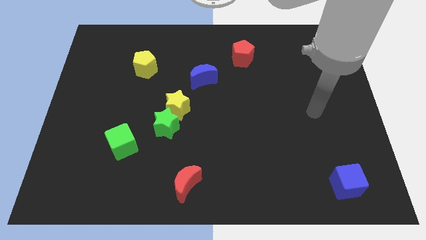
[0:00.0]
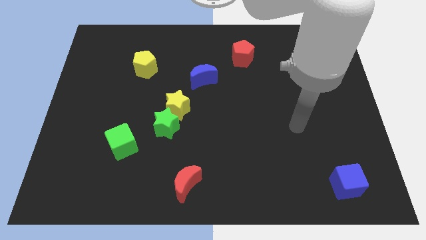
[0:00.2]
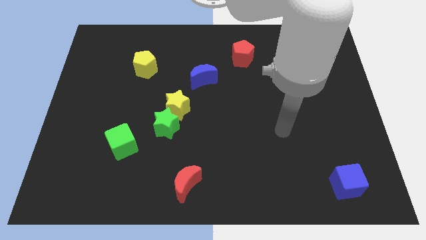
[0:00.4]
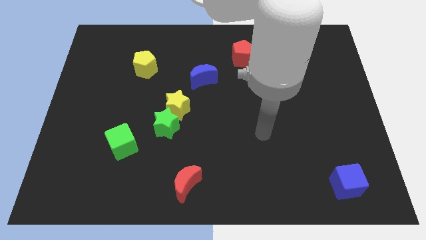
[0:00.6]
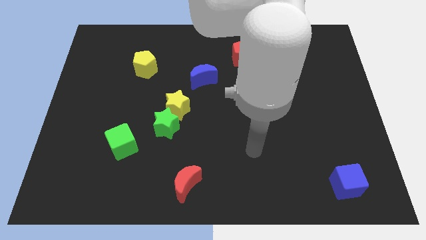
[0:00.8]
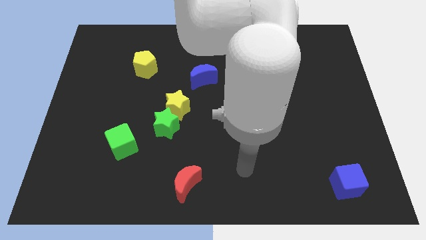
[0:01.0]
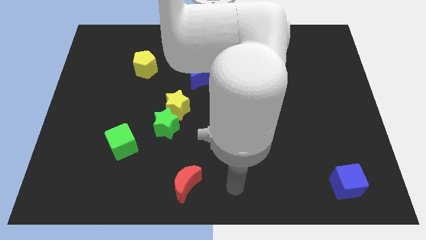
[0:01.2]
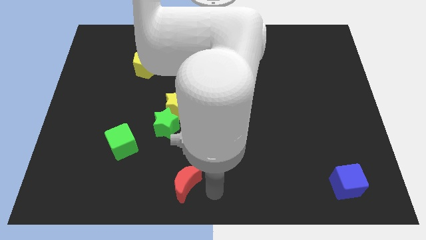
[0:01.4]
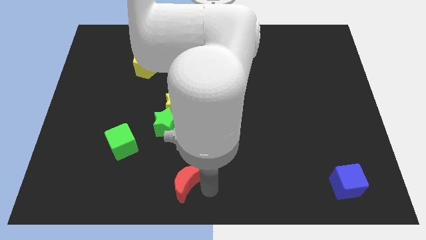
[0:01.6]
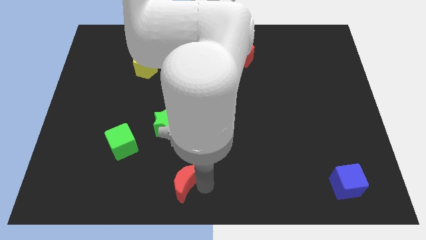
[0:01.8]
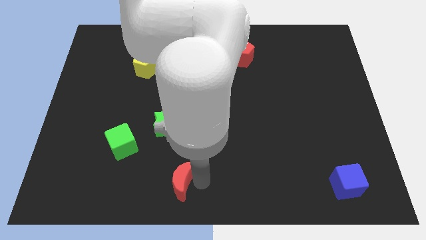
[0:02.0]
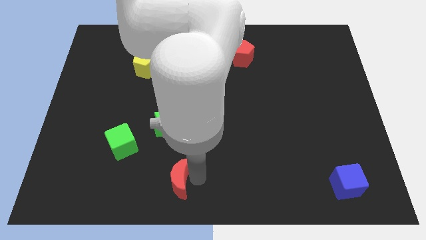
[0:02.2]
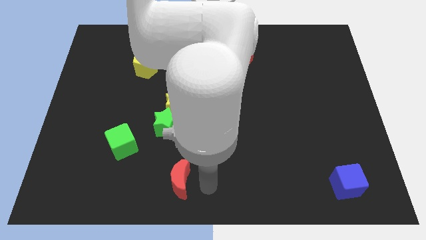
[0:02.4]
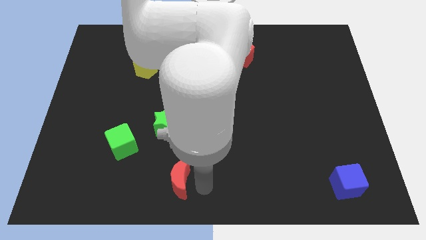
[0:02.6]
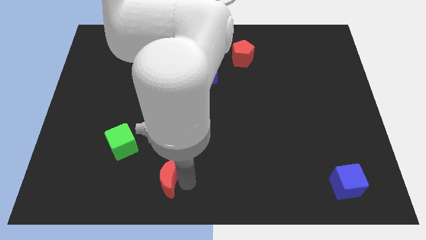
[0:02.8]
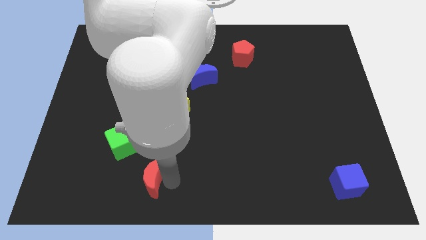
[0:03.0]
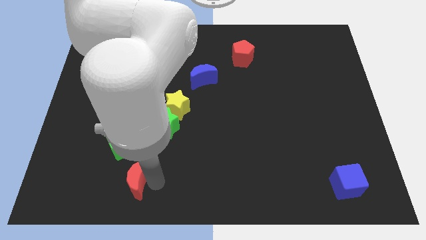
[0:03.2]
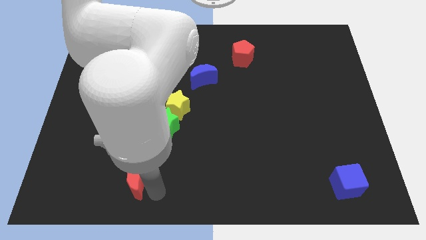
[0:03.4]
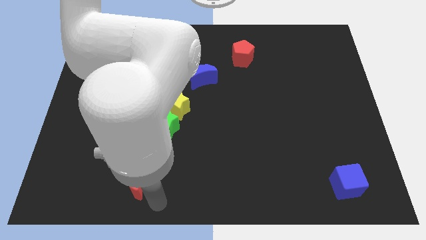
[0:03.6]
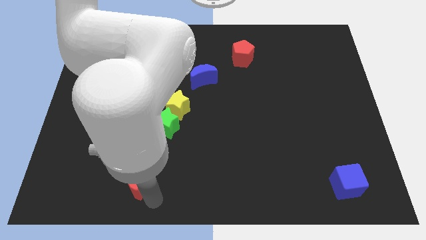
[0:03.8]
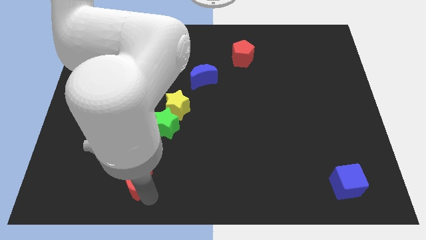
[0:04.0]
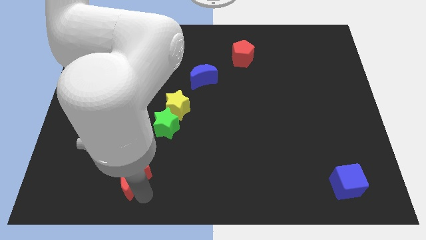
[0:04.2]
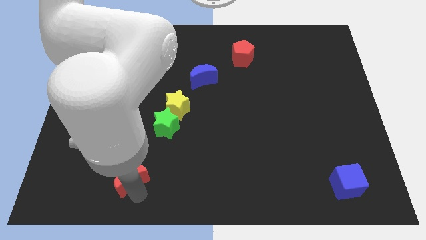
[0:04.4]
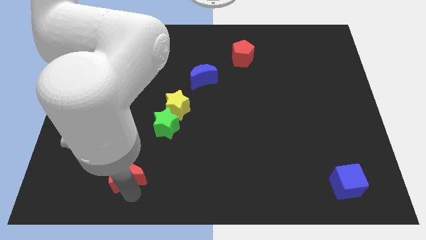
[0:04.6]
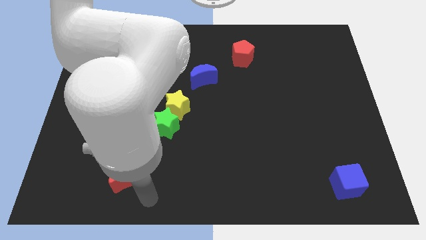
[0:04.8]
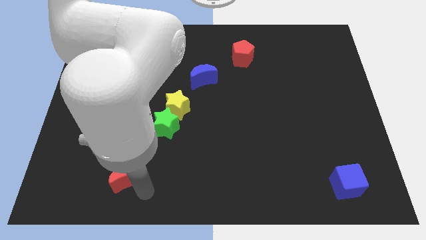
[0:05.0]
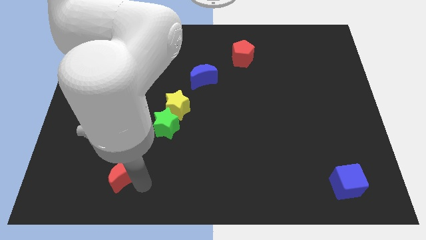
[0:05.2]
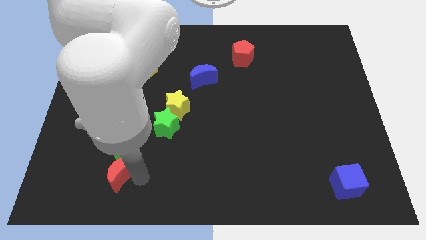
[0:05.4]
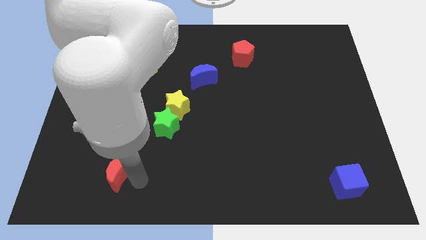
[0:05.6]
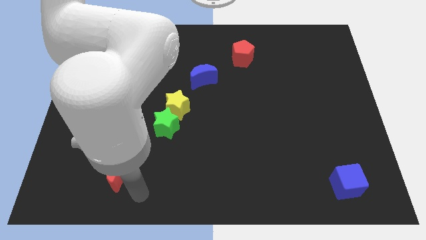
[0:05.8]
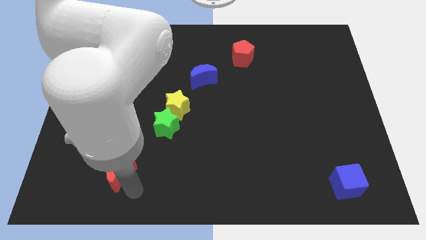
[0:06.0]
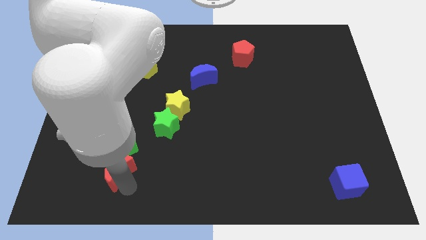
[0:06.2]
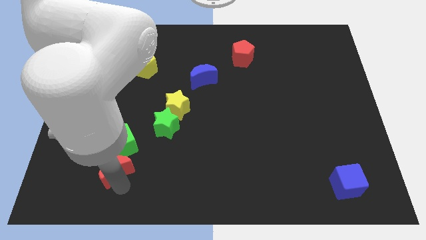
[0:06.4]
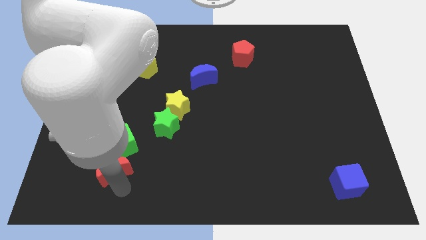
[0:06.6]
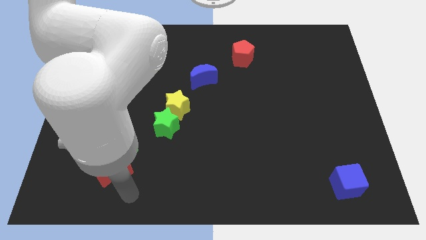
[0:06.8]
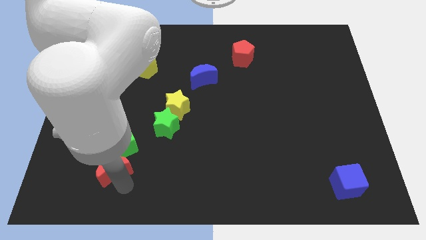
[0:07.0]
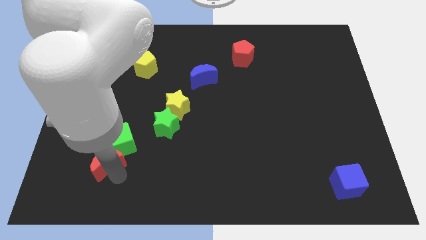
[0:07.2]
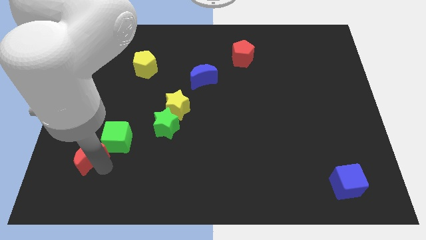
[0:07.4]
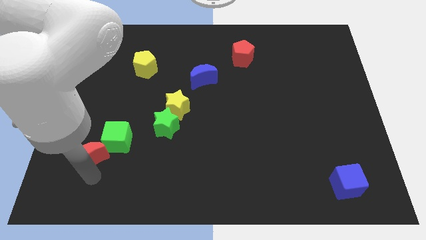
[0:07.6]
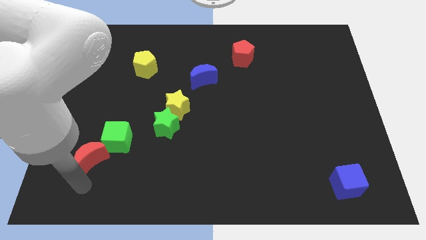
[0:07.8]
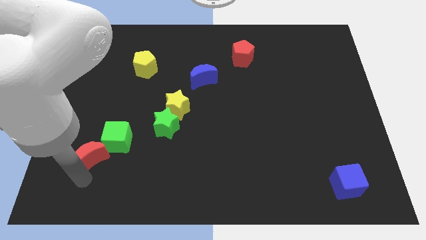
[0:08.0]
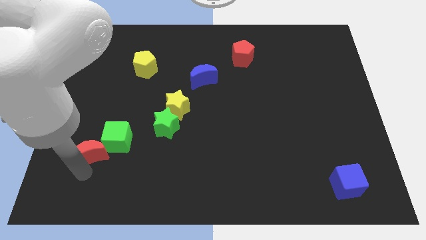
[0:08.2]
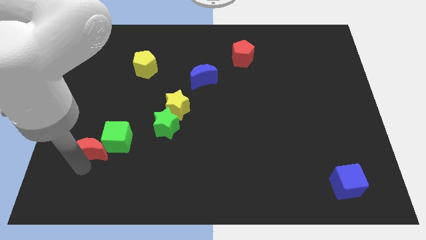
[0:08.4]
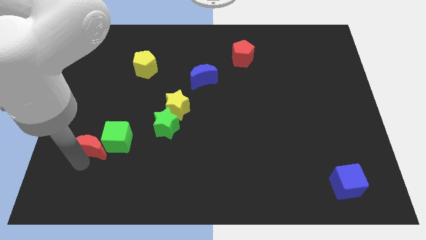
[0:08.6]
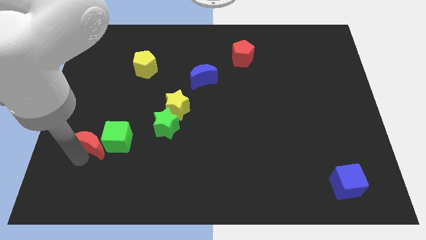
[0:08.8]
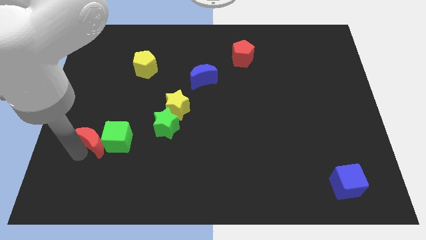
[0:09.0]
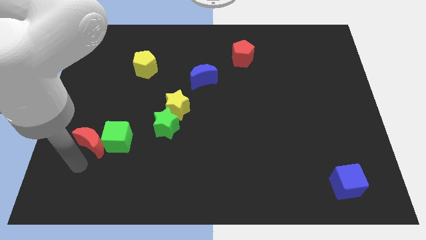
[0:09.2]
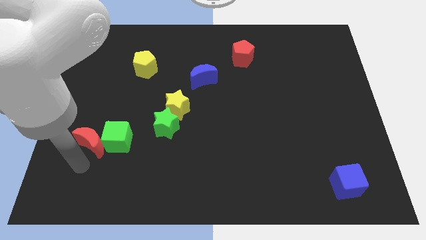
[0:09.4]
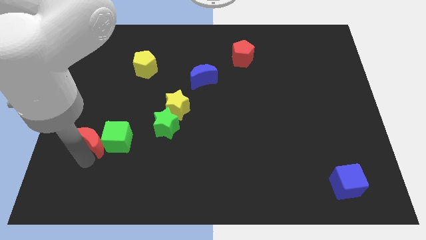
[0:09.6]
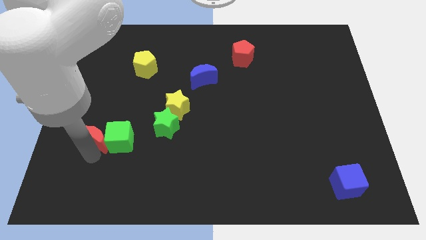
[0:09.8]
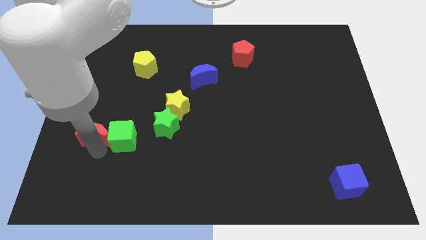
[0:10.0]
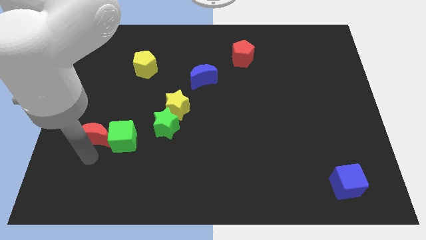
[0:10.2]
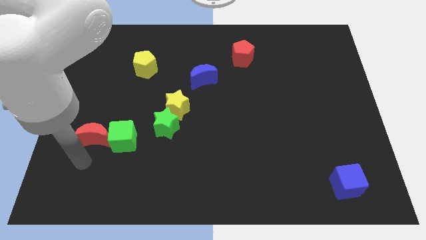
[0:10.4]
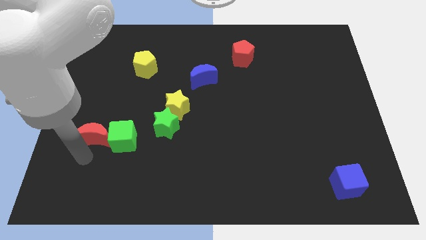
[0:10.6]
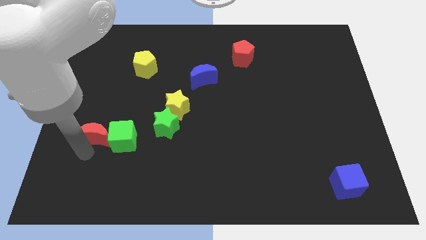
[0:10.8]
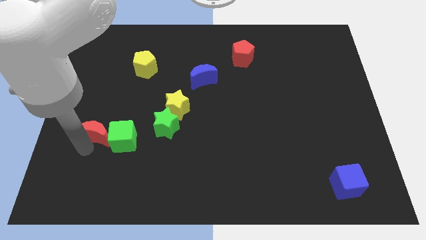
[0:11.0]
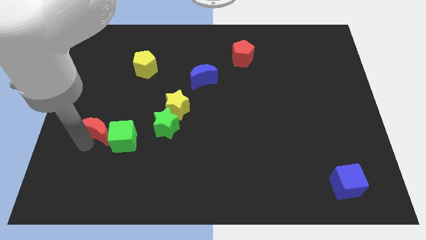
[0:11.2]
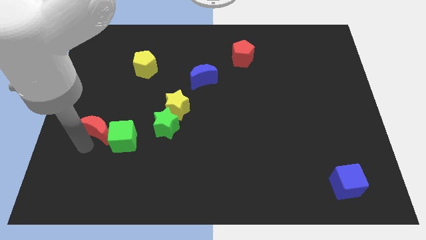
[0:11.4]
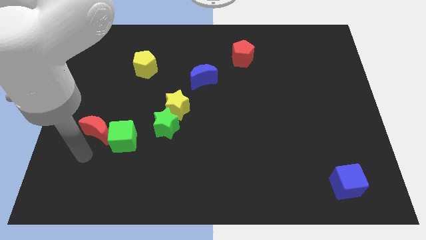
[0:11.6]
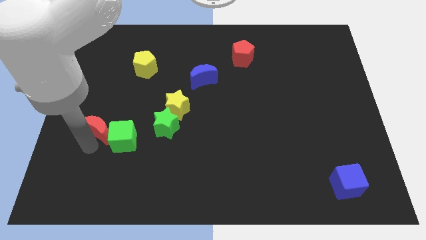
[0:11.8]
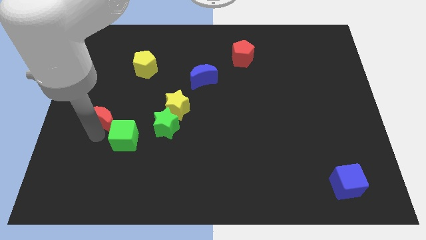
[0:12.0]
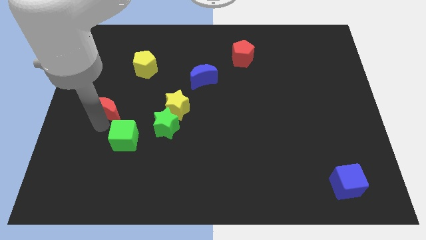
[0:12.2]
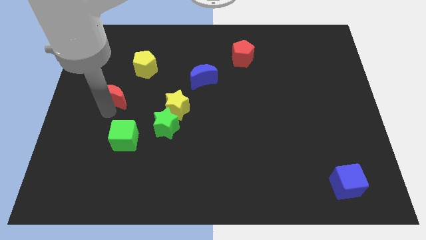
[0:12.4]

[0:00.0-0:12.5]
move the red moon to the bottom left of the yellow pentagon

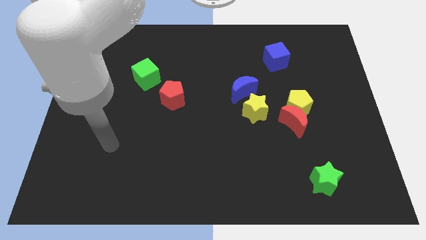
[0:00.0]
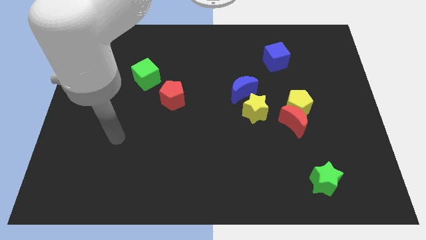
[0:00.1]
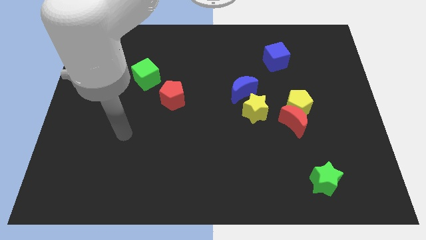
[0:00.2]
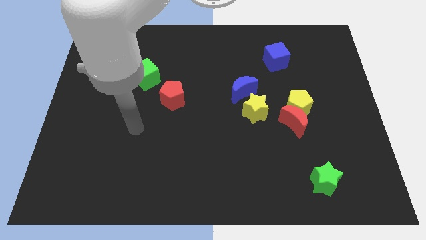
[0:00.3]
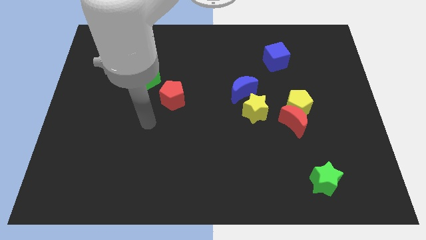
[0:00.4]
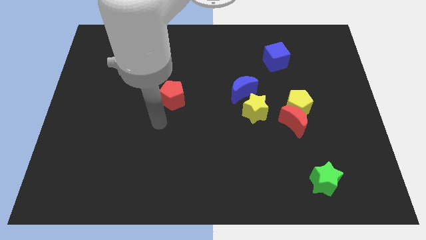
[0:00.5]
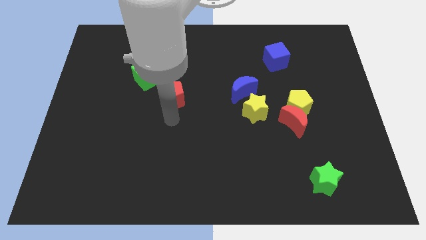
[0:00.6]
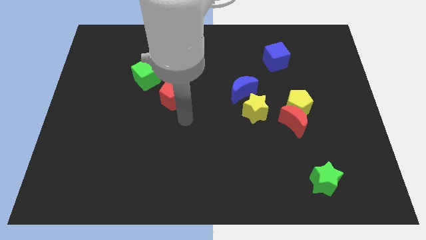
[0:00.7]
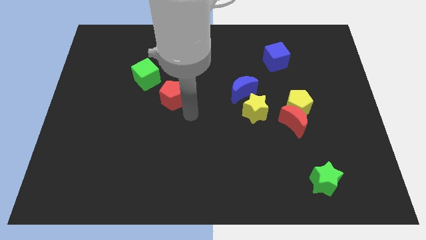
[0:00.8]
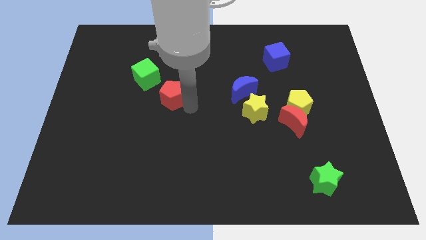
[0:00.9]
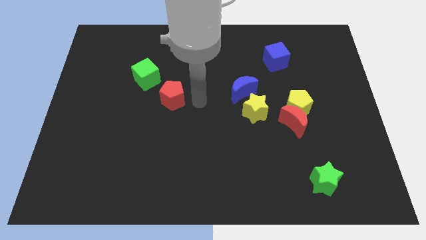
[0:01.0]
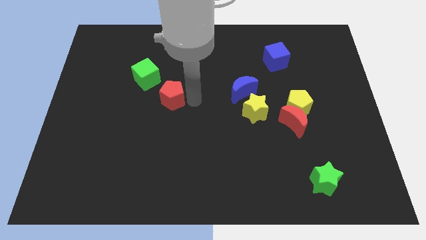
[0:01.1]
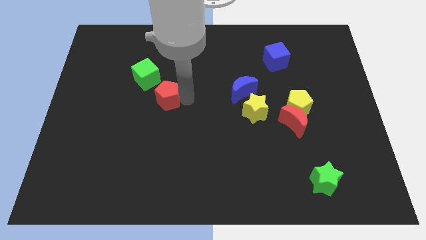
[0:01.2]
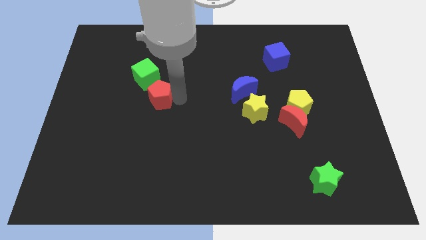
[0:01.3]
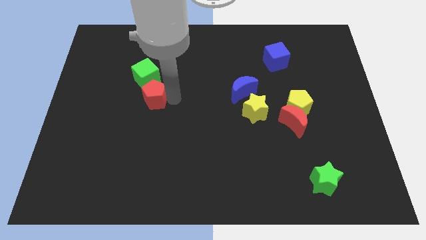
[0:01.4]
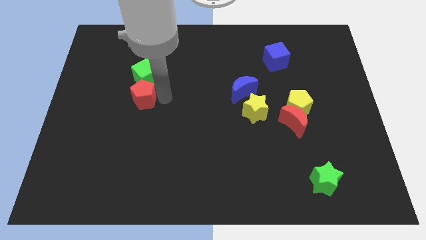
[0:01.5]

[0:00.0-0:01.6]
put the red pentagon to the bottom left of the green cube
